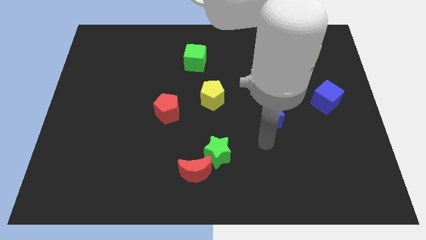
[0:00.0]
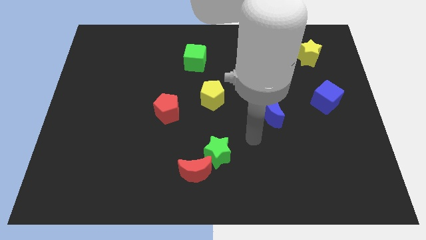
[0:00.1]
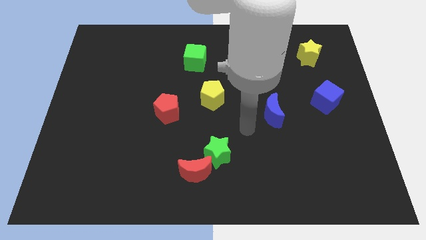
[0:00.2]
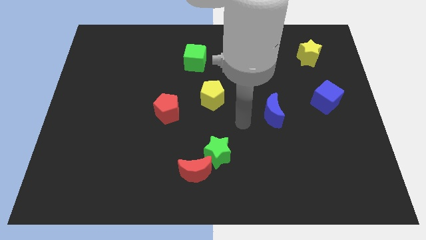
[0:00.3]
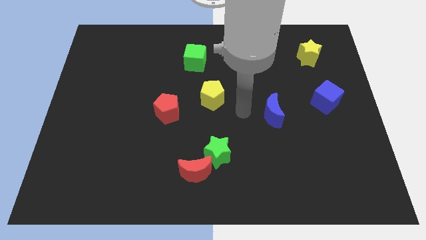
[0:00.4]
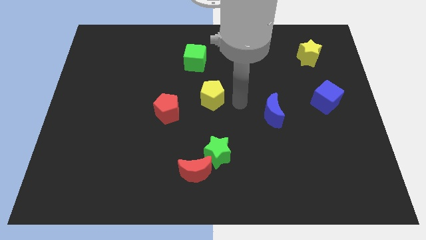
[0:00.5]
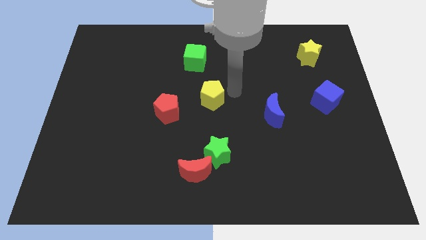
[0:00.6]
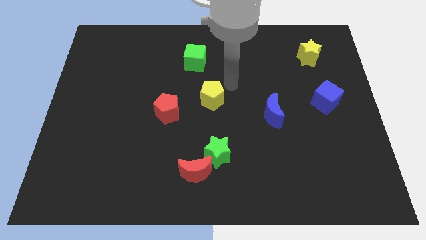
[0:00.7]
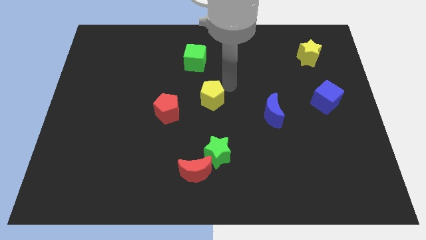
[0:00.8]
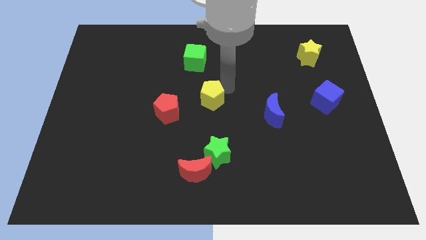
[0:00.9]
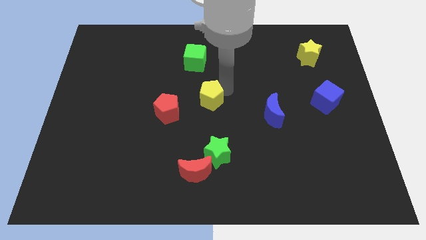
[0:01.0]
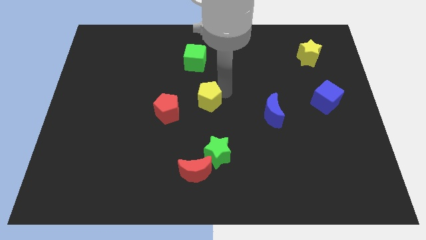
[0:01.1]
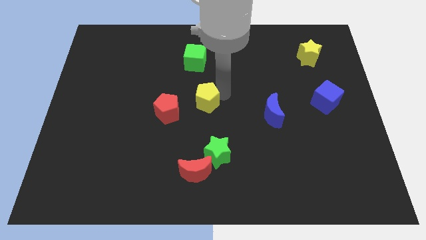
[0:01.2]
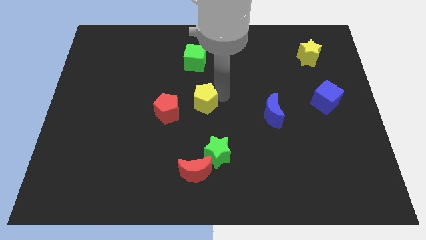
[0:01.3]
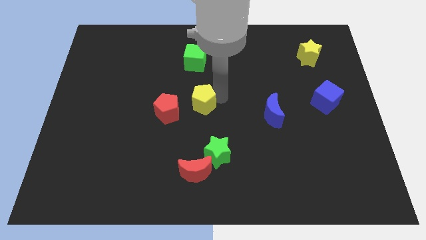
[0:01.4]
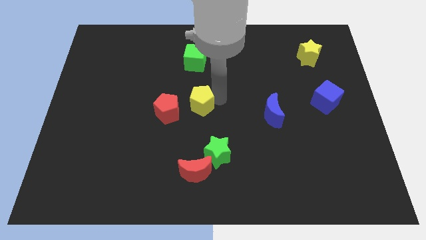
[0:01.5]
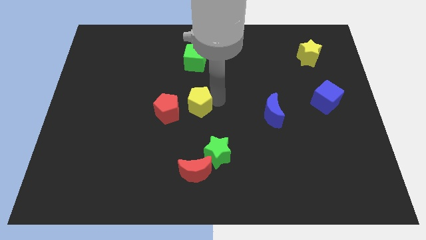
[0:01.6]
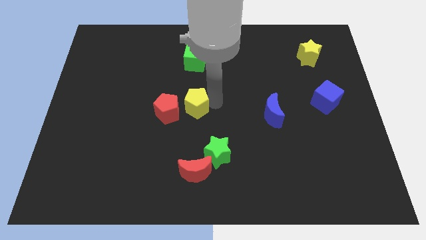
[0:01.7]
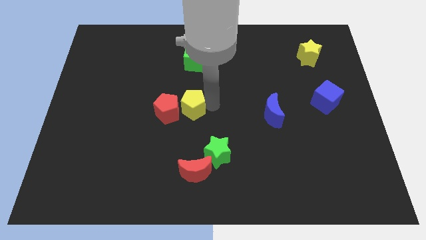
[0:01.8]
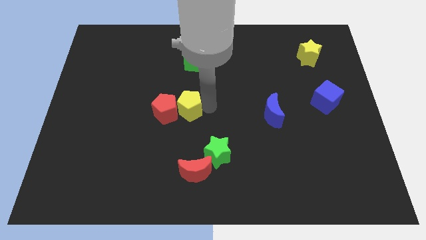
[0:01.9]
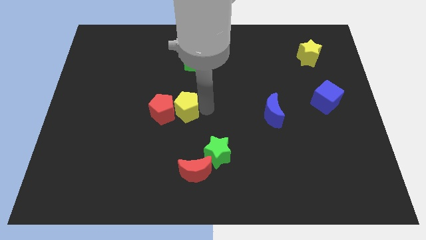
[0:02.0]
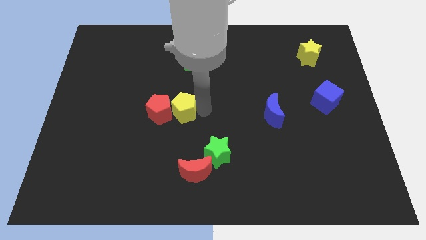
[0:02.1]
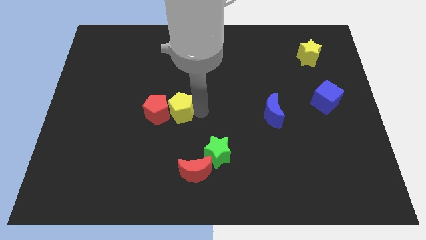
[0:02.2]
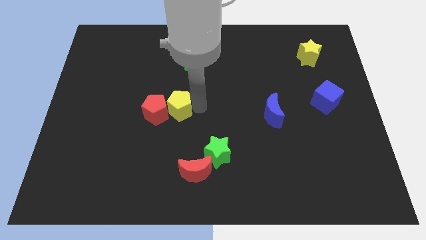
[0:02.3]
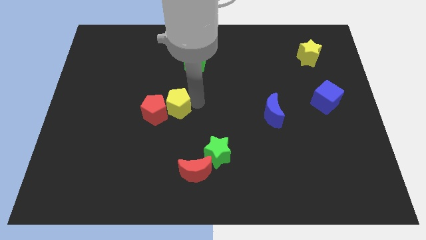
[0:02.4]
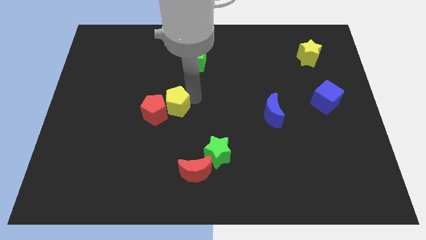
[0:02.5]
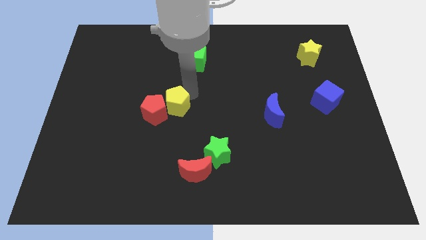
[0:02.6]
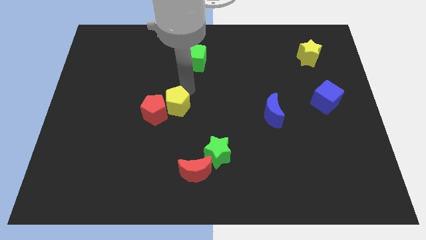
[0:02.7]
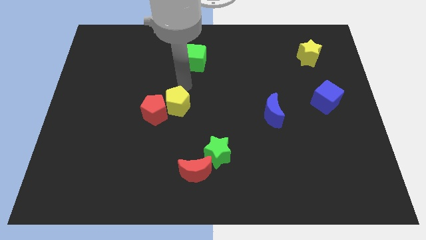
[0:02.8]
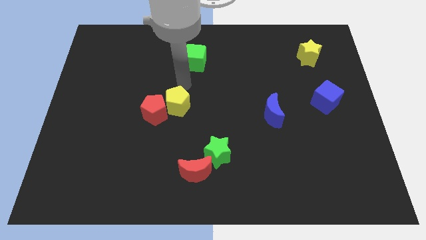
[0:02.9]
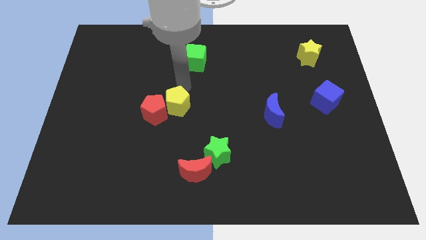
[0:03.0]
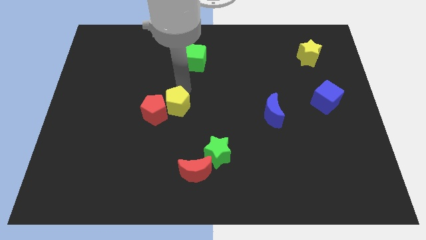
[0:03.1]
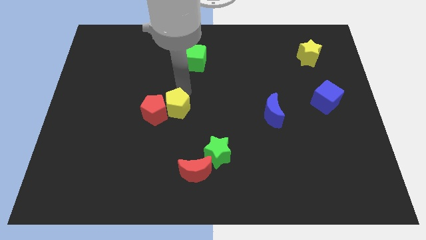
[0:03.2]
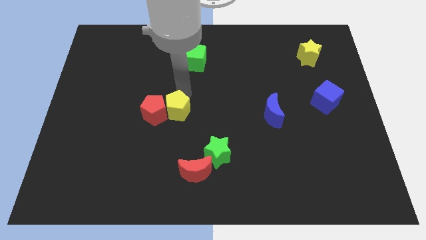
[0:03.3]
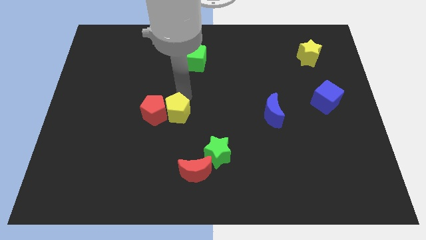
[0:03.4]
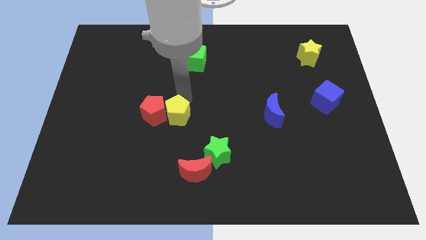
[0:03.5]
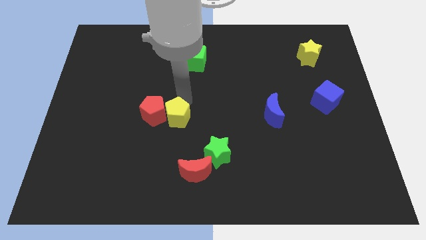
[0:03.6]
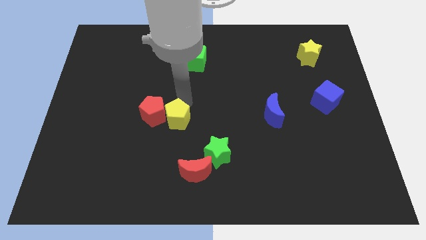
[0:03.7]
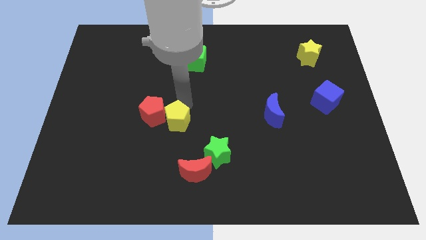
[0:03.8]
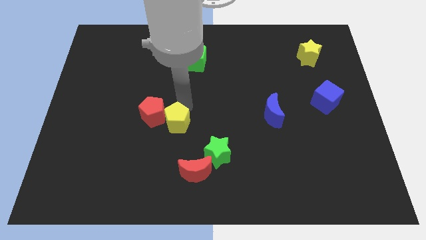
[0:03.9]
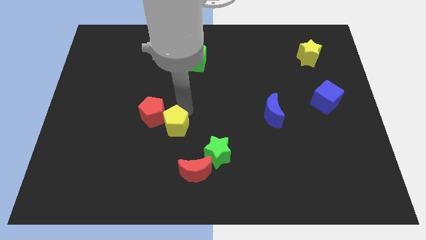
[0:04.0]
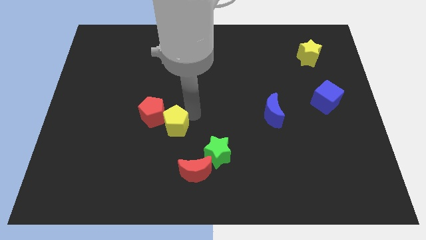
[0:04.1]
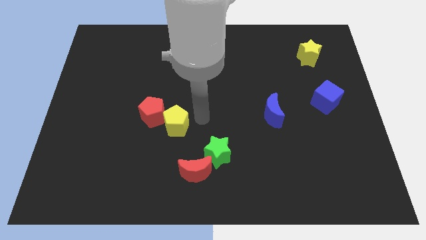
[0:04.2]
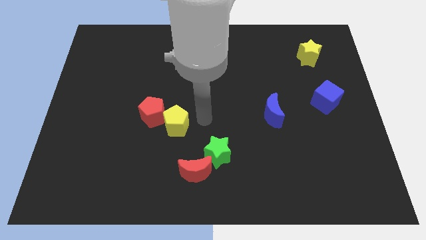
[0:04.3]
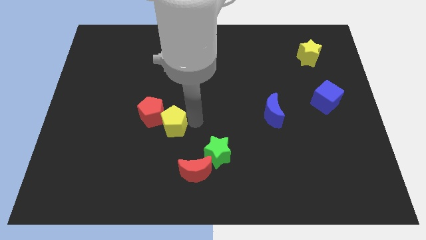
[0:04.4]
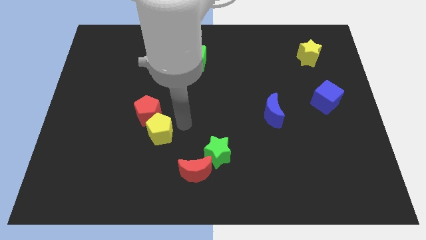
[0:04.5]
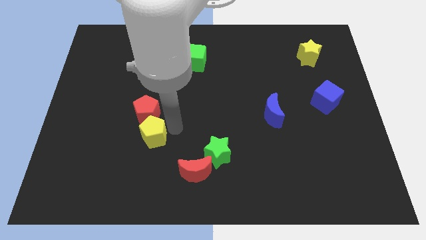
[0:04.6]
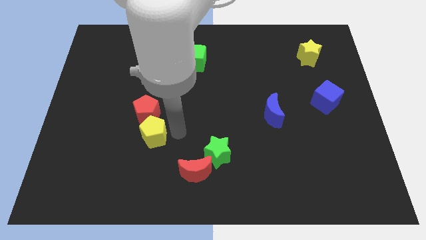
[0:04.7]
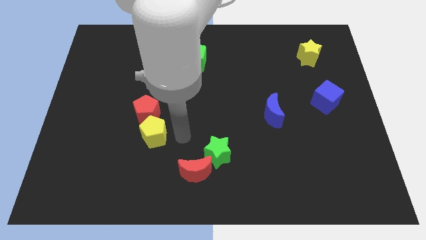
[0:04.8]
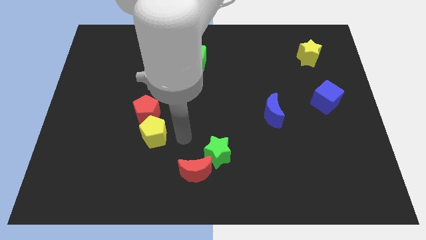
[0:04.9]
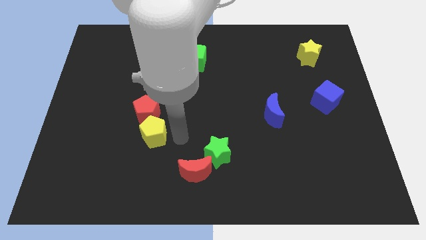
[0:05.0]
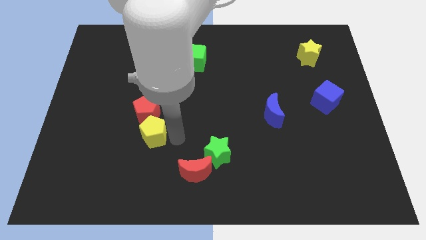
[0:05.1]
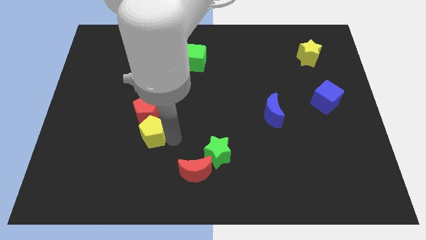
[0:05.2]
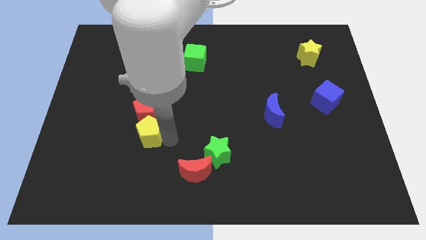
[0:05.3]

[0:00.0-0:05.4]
put the yellow pentagon to the bottom left side of the red pentagon

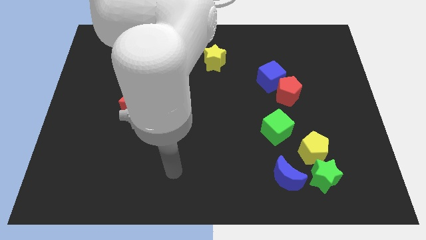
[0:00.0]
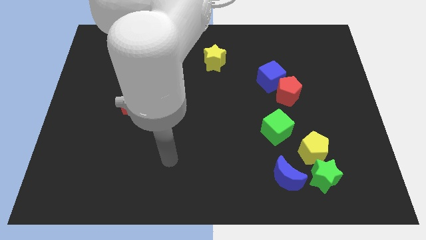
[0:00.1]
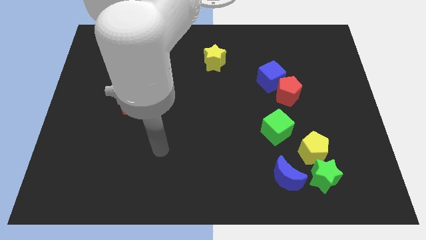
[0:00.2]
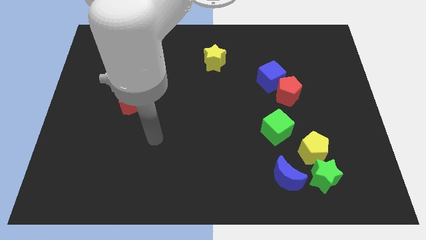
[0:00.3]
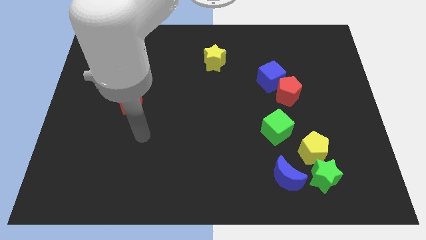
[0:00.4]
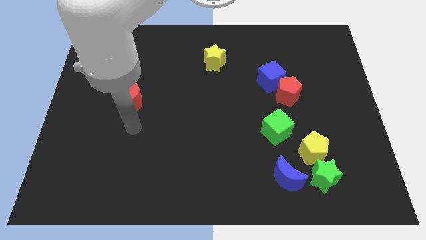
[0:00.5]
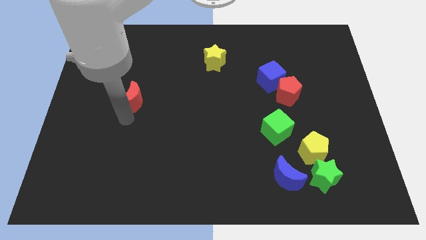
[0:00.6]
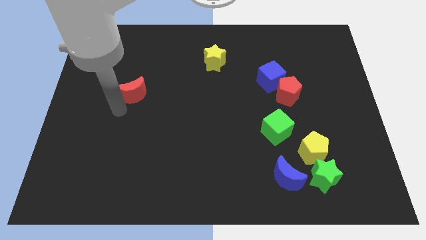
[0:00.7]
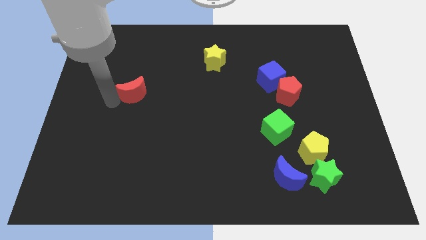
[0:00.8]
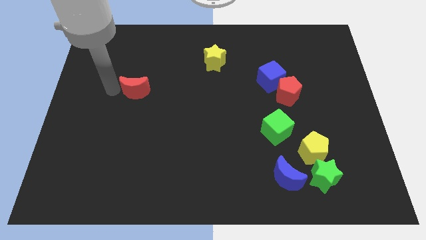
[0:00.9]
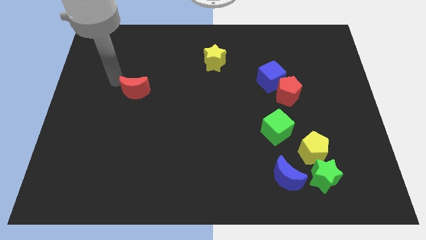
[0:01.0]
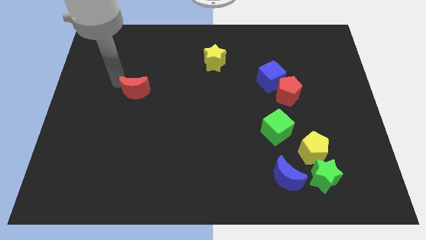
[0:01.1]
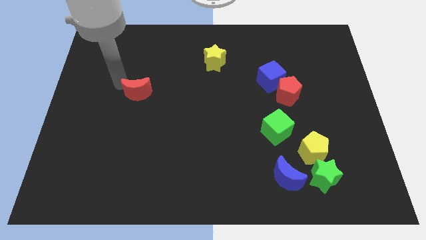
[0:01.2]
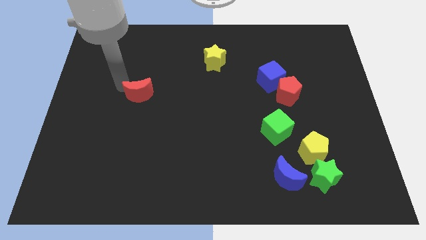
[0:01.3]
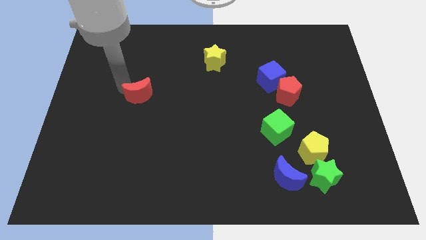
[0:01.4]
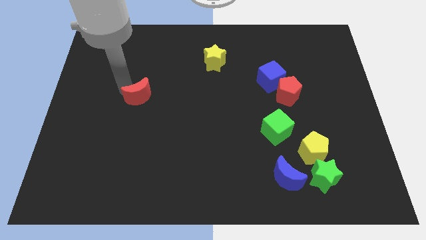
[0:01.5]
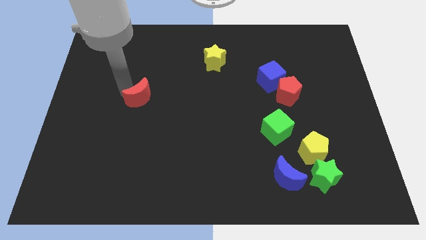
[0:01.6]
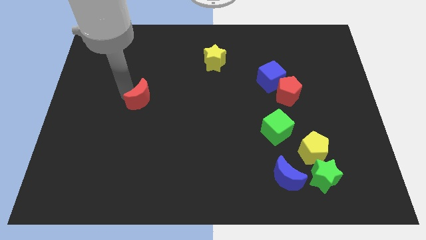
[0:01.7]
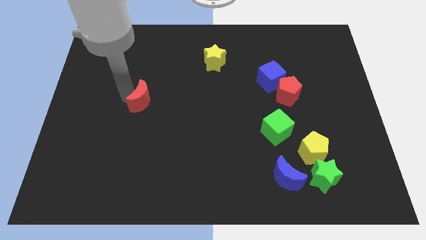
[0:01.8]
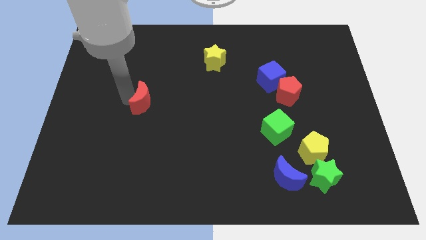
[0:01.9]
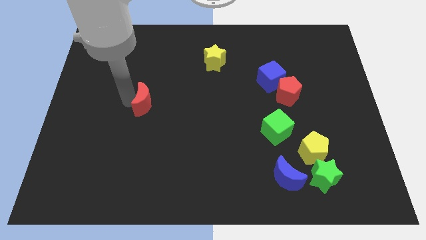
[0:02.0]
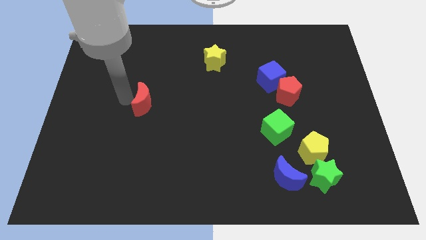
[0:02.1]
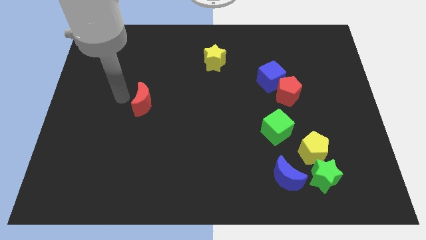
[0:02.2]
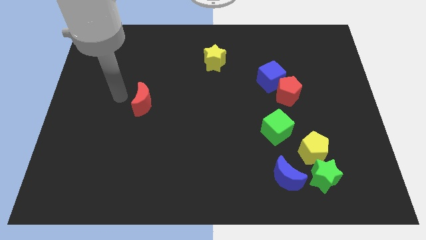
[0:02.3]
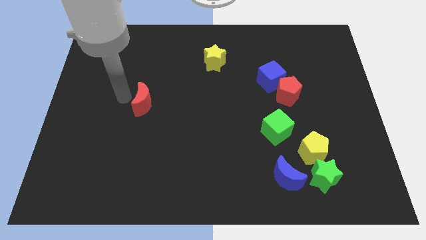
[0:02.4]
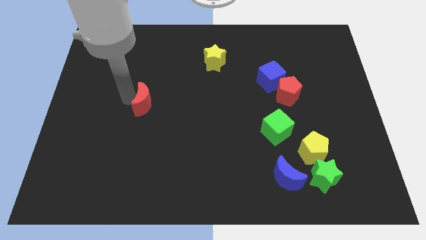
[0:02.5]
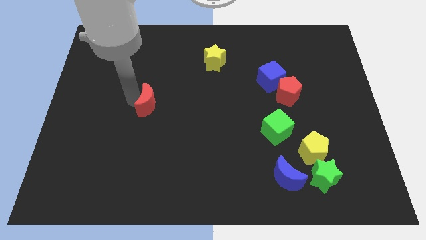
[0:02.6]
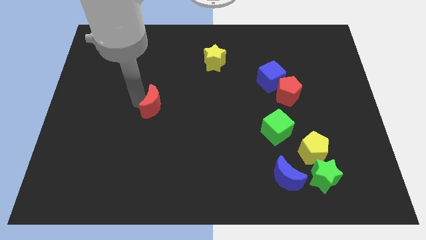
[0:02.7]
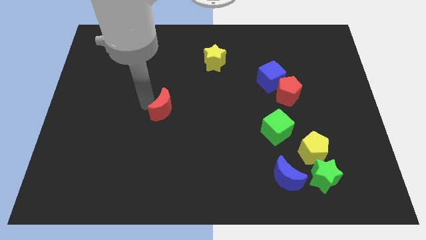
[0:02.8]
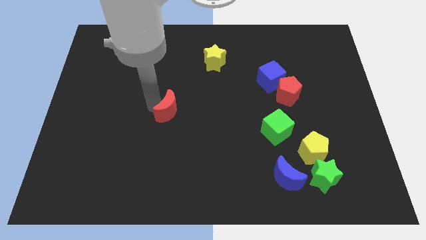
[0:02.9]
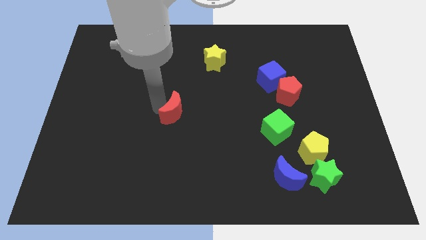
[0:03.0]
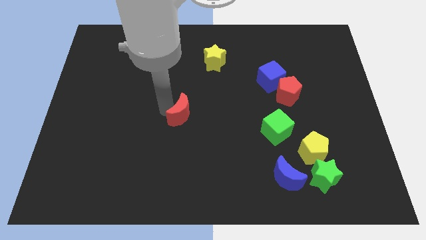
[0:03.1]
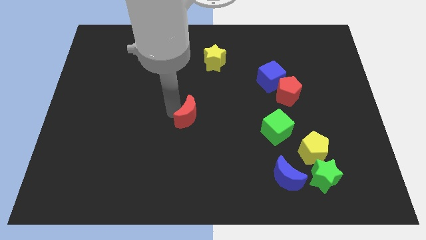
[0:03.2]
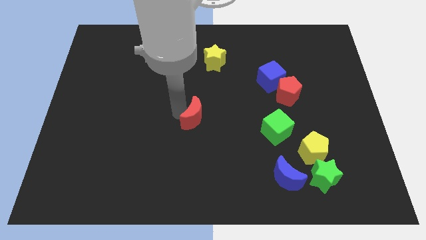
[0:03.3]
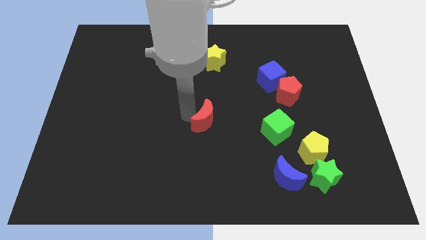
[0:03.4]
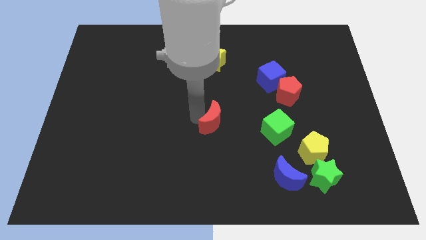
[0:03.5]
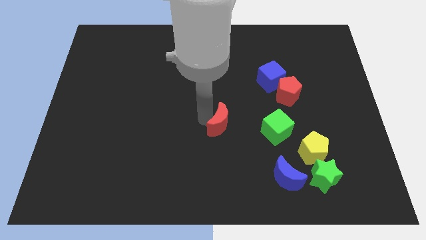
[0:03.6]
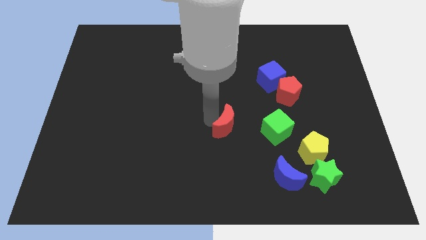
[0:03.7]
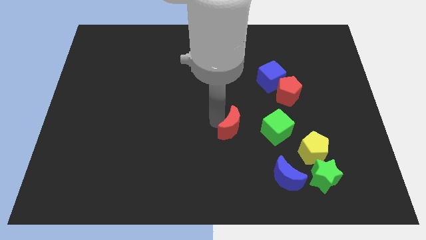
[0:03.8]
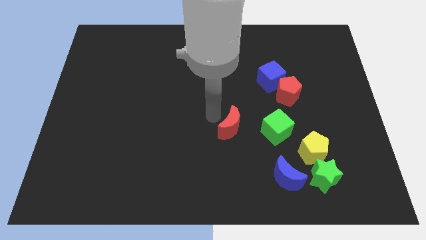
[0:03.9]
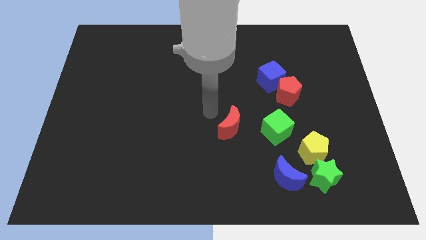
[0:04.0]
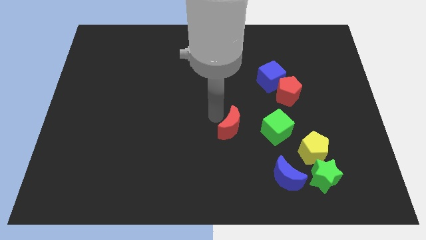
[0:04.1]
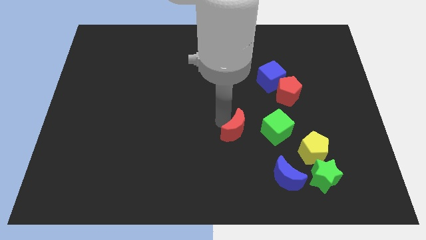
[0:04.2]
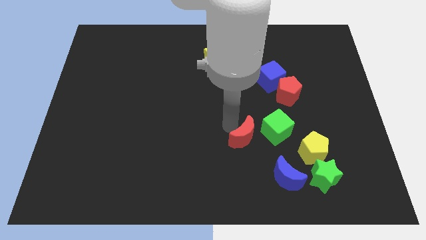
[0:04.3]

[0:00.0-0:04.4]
slide the red moon just left of the yellow pentagon
